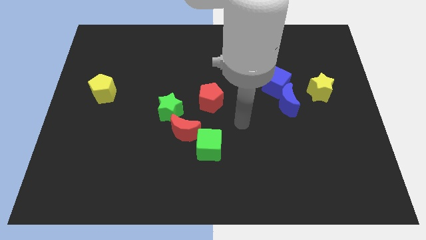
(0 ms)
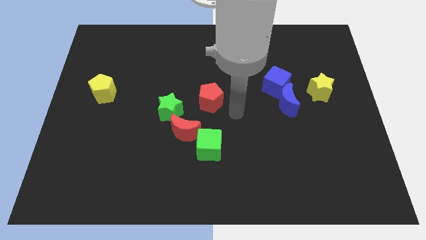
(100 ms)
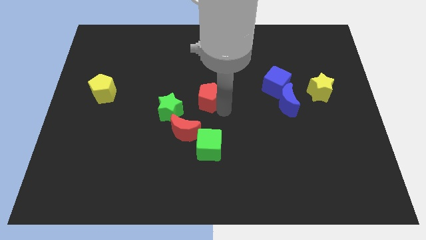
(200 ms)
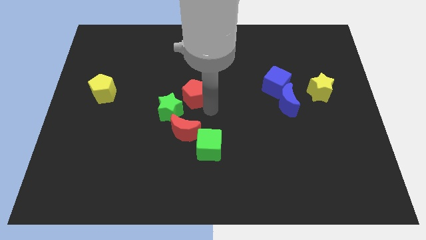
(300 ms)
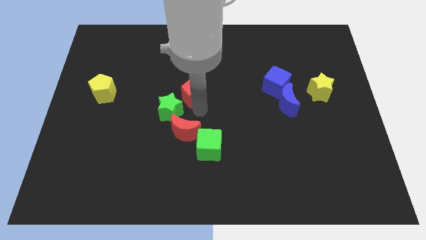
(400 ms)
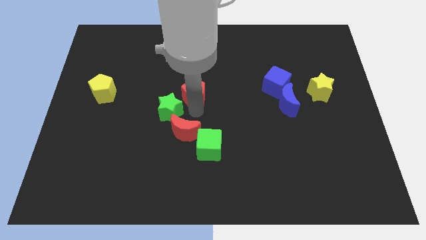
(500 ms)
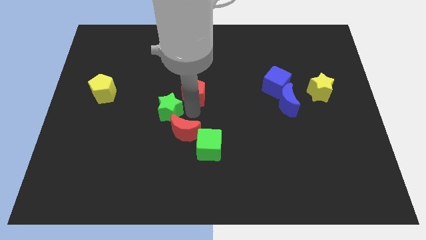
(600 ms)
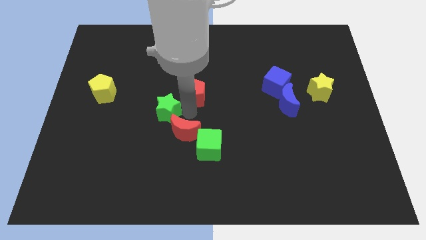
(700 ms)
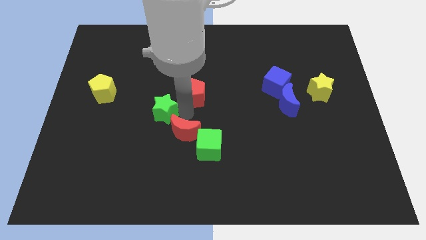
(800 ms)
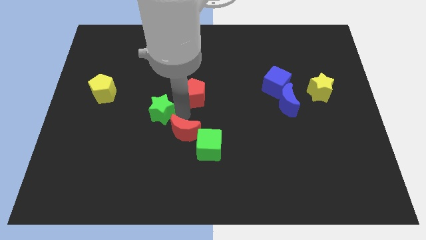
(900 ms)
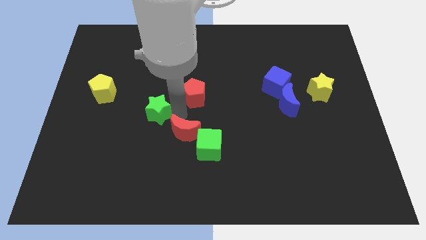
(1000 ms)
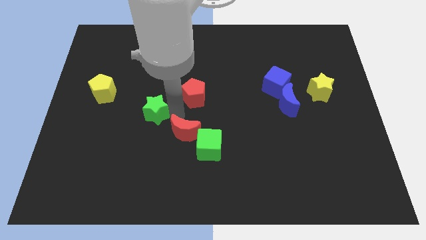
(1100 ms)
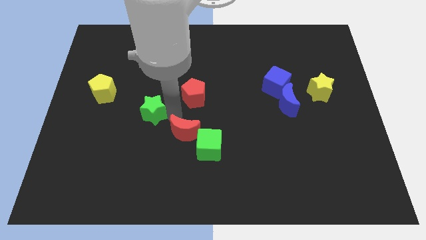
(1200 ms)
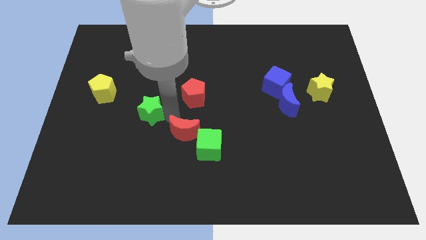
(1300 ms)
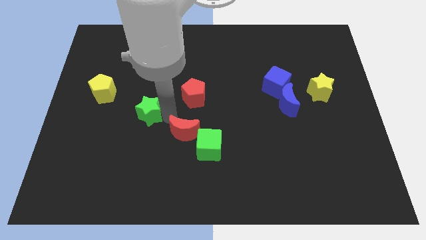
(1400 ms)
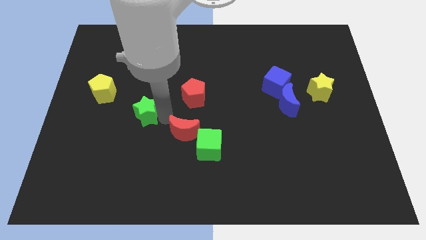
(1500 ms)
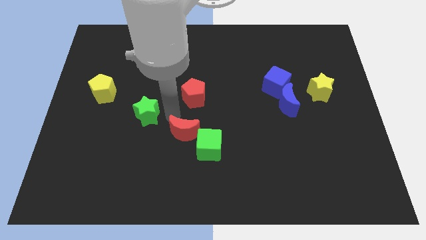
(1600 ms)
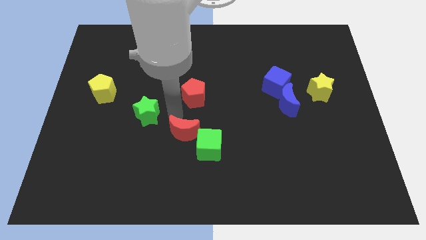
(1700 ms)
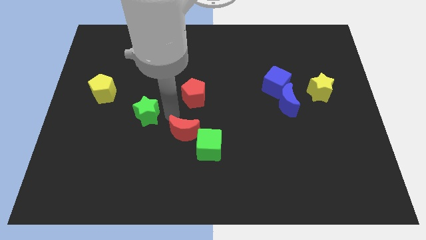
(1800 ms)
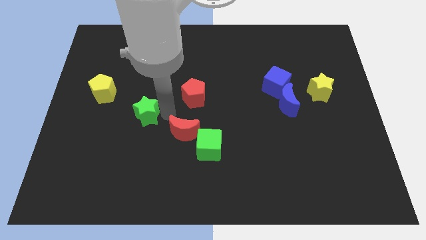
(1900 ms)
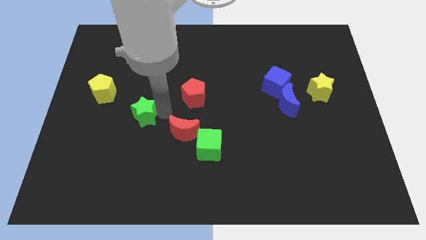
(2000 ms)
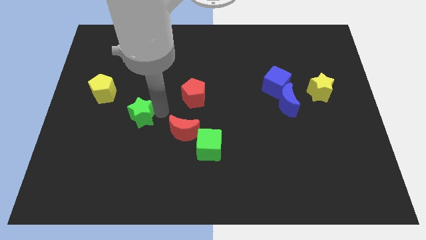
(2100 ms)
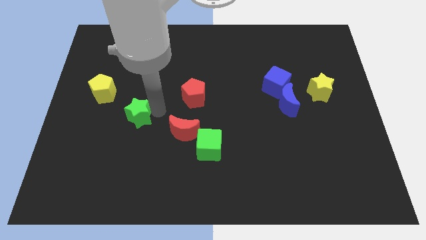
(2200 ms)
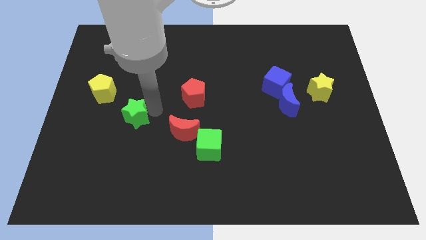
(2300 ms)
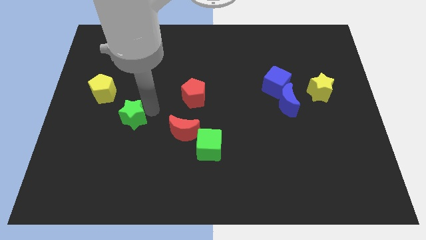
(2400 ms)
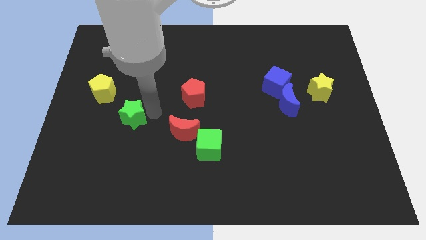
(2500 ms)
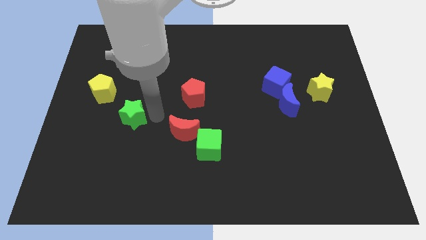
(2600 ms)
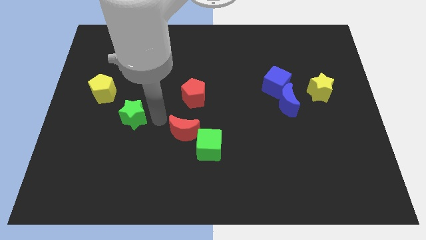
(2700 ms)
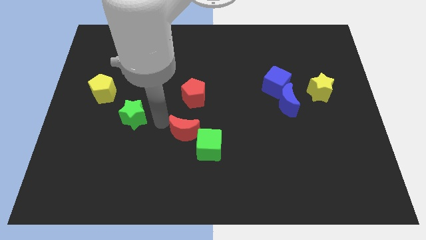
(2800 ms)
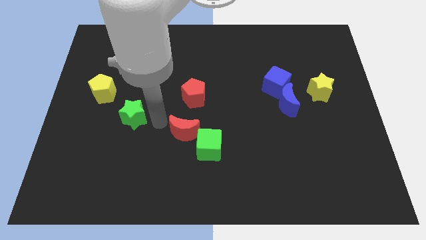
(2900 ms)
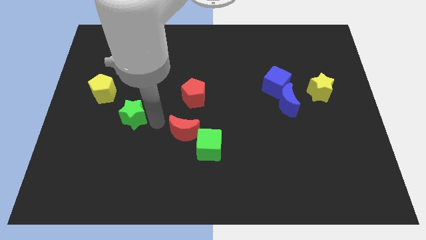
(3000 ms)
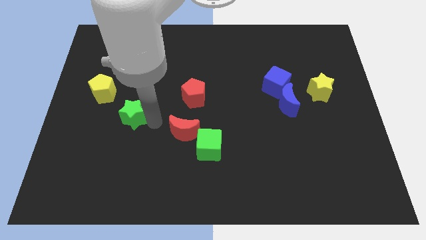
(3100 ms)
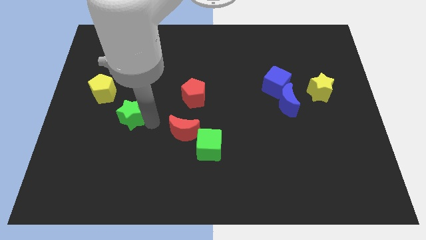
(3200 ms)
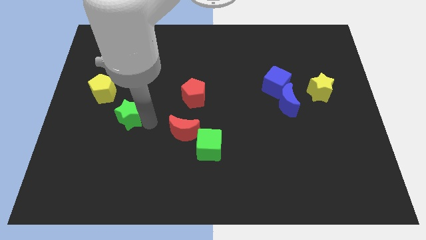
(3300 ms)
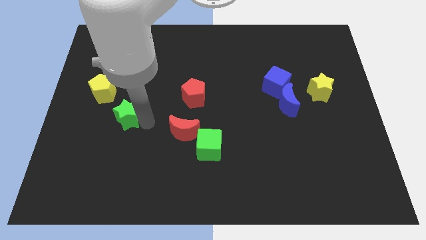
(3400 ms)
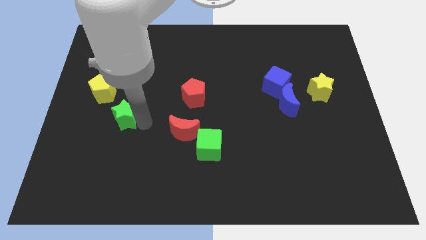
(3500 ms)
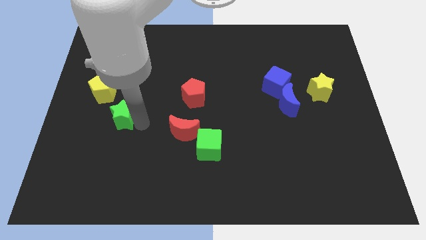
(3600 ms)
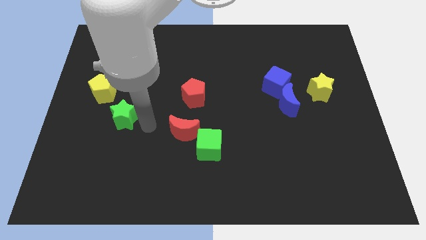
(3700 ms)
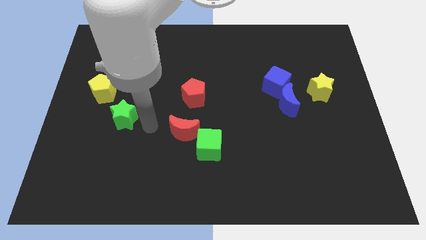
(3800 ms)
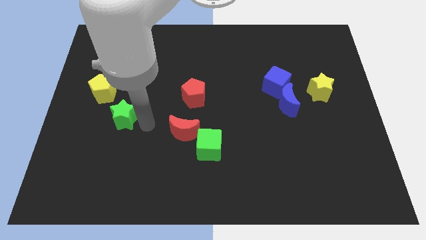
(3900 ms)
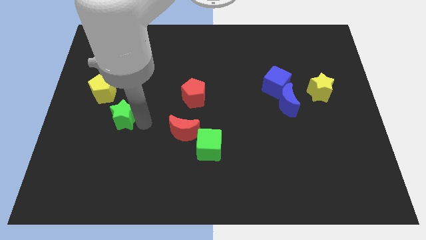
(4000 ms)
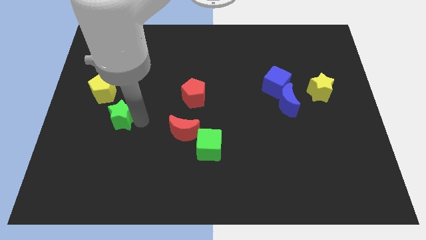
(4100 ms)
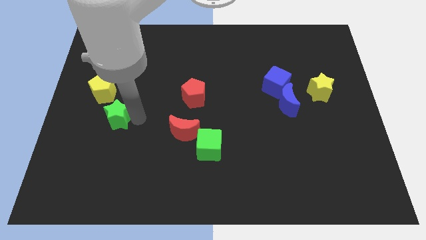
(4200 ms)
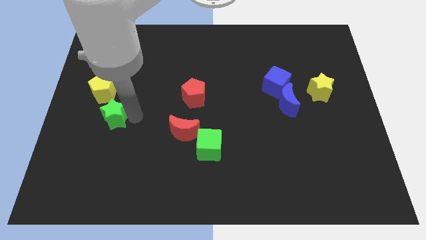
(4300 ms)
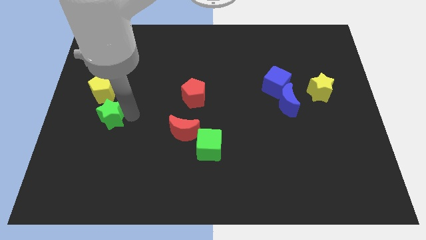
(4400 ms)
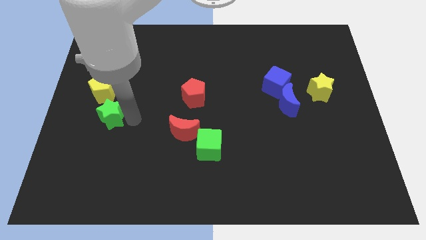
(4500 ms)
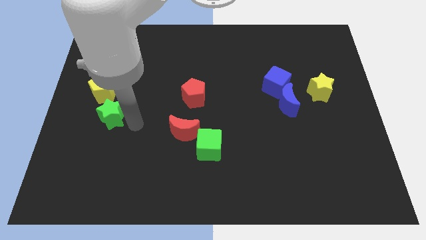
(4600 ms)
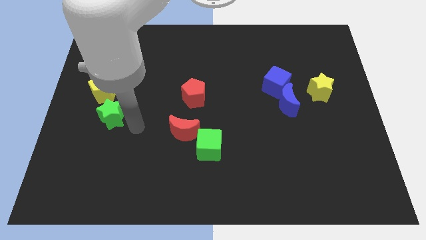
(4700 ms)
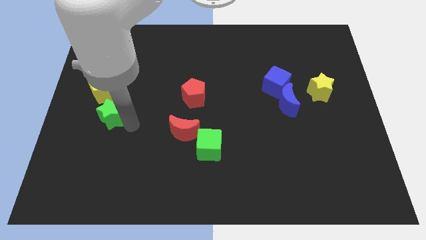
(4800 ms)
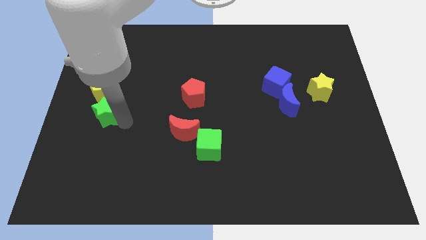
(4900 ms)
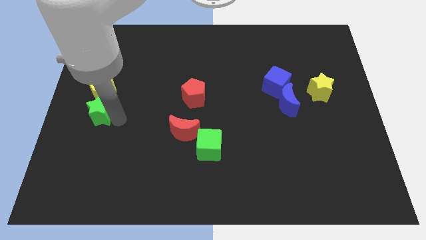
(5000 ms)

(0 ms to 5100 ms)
slide the green star to the center left

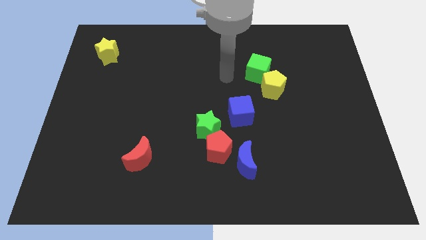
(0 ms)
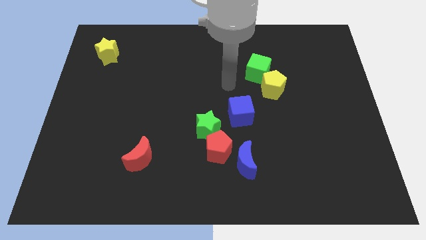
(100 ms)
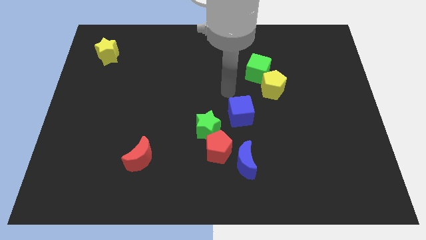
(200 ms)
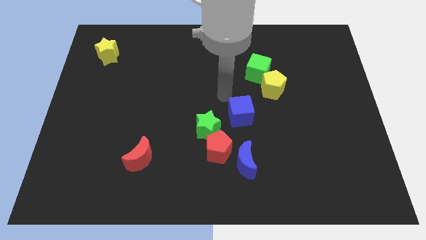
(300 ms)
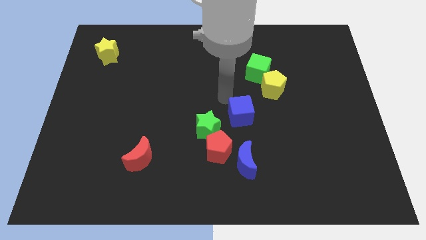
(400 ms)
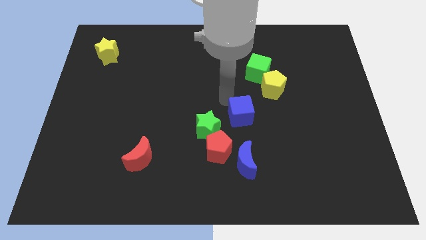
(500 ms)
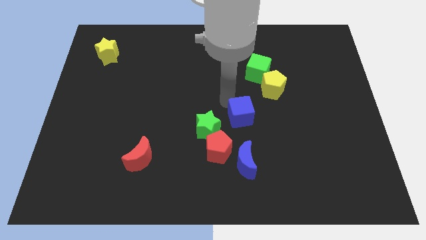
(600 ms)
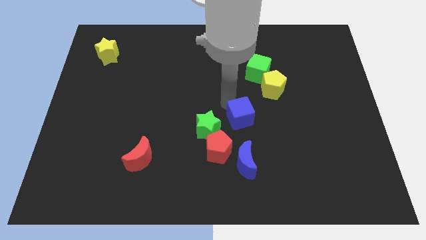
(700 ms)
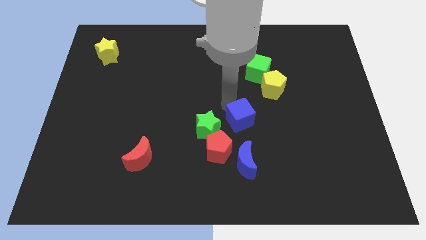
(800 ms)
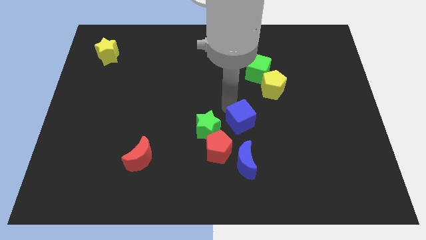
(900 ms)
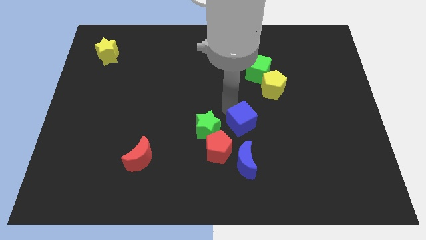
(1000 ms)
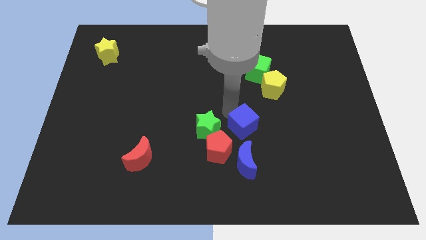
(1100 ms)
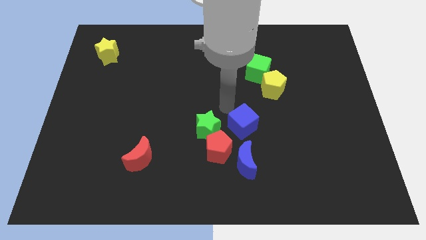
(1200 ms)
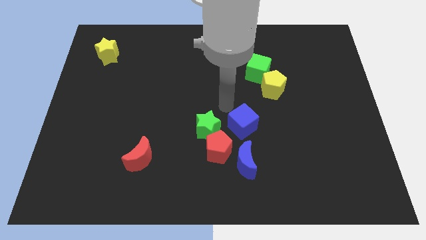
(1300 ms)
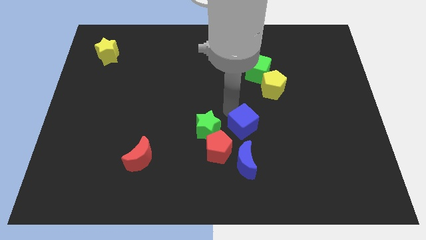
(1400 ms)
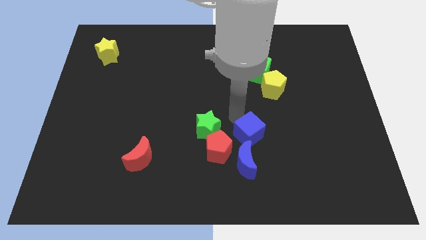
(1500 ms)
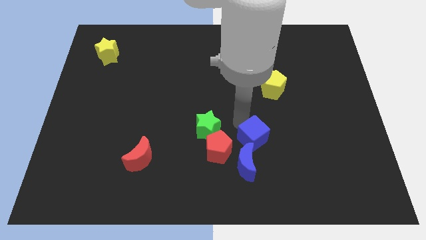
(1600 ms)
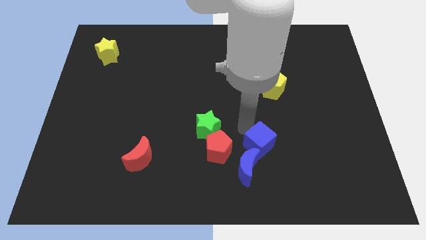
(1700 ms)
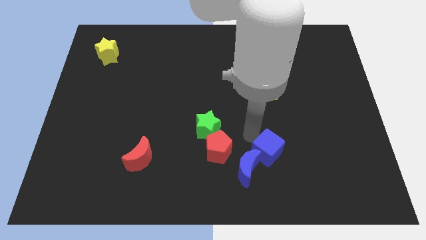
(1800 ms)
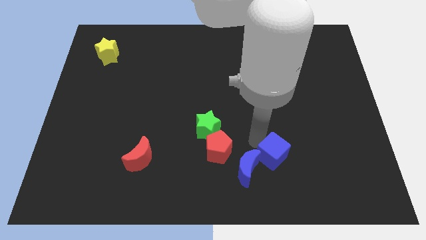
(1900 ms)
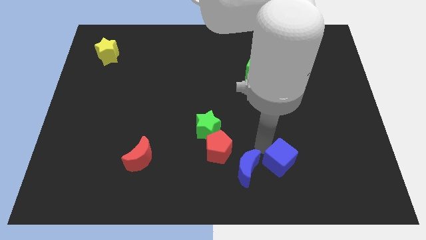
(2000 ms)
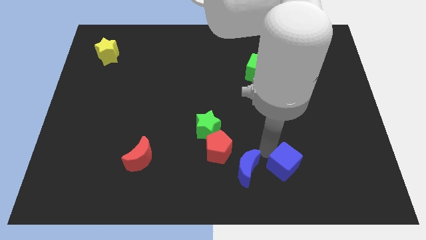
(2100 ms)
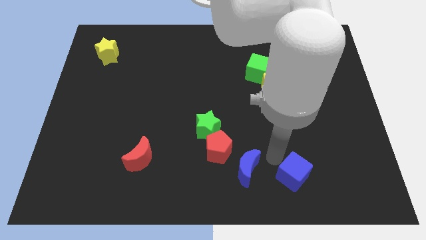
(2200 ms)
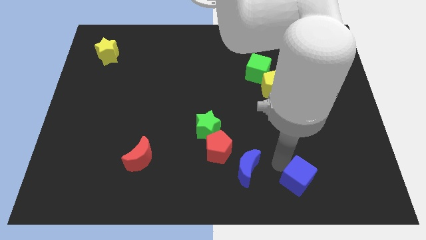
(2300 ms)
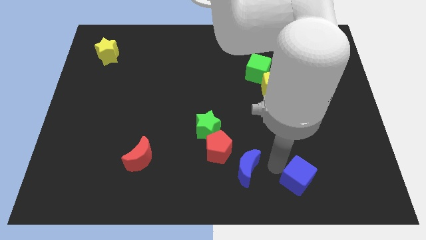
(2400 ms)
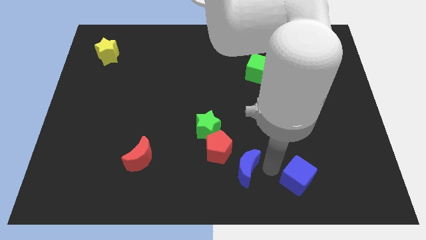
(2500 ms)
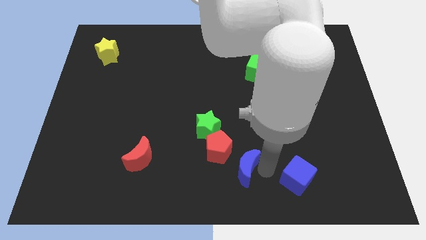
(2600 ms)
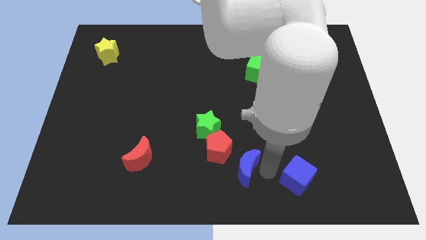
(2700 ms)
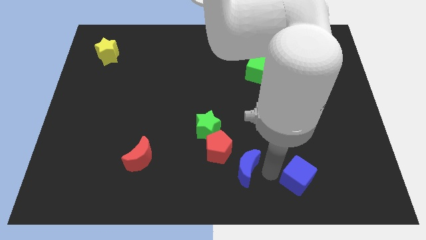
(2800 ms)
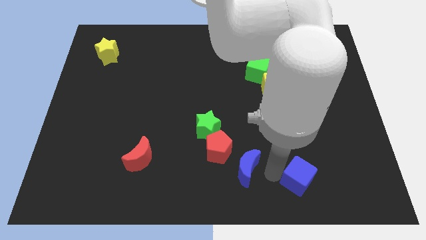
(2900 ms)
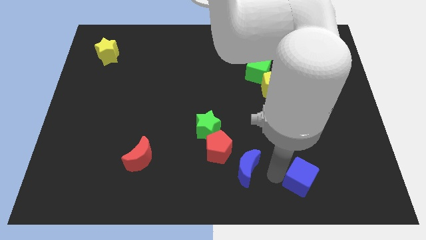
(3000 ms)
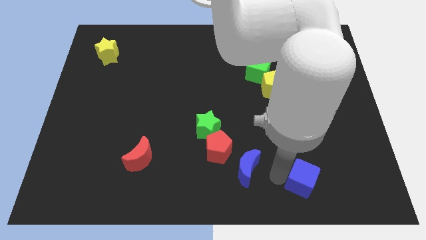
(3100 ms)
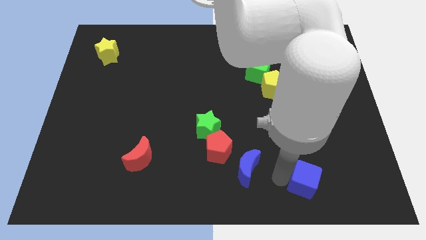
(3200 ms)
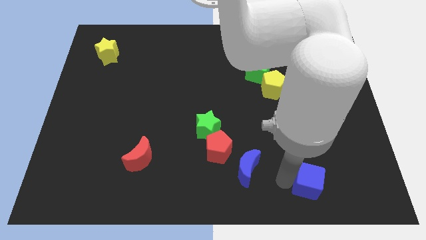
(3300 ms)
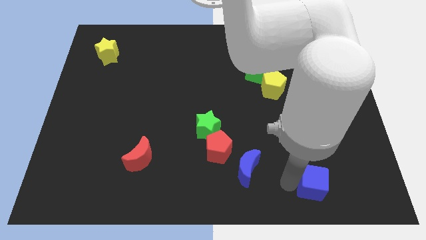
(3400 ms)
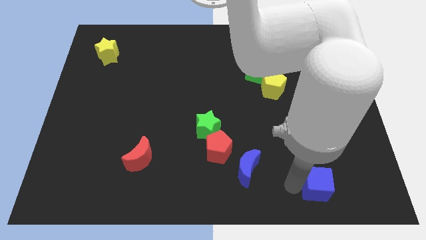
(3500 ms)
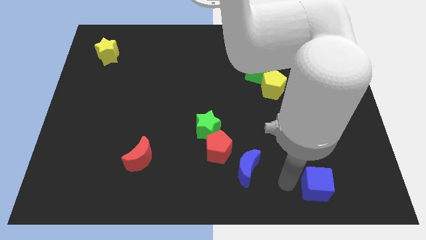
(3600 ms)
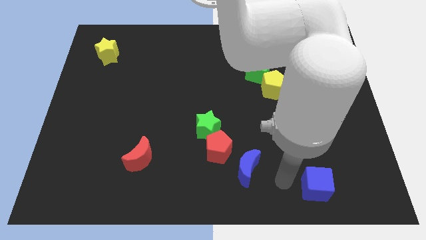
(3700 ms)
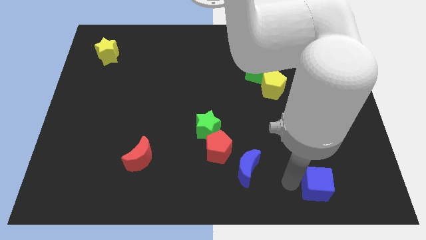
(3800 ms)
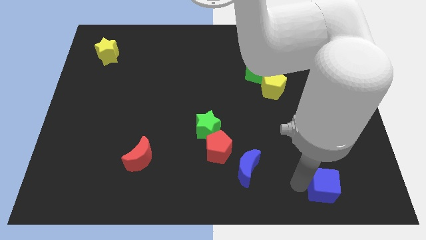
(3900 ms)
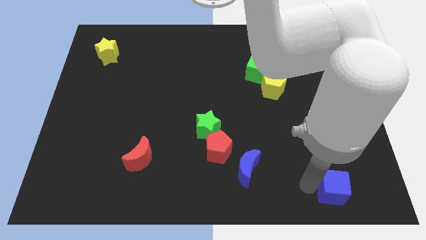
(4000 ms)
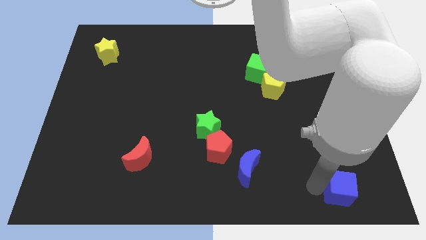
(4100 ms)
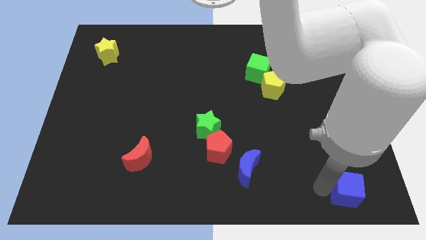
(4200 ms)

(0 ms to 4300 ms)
push the blue cube to the bottom right corner
